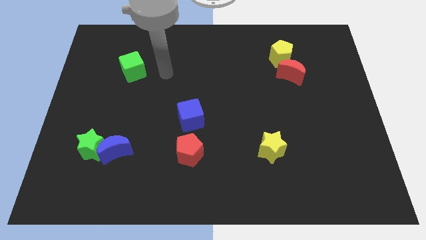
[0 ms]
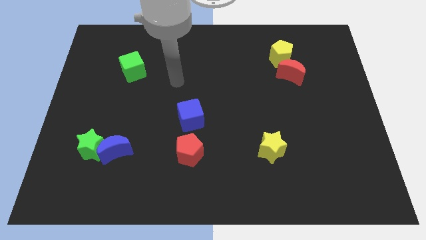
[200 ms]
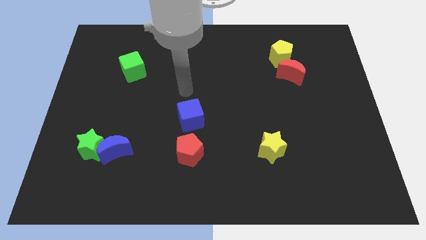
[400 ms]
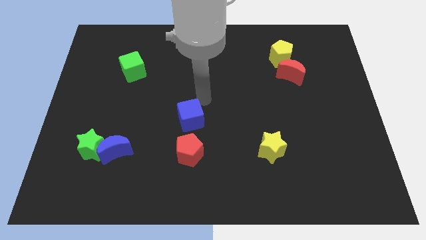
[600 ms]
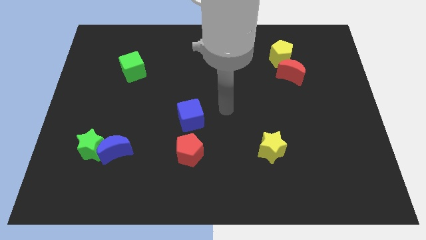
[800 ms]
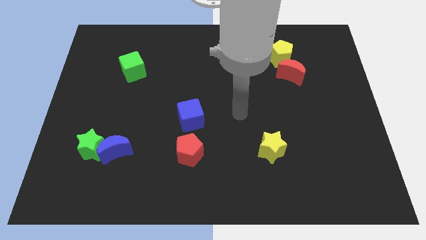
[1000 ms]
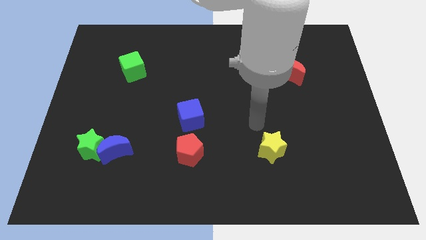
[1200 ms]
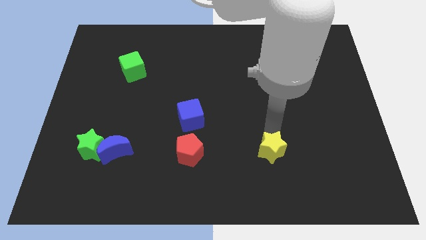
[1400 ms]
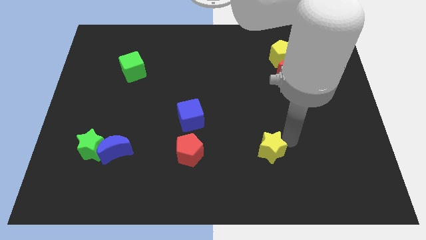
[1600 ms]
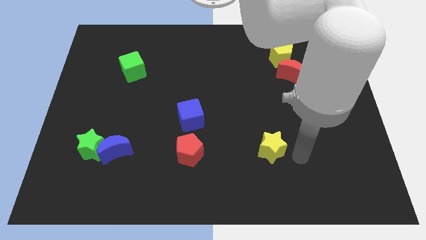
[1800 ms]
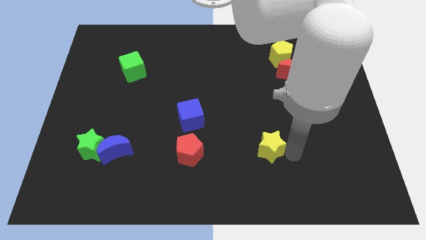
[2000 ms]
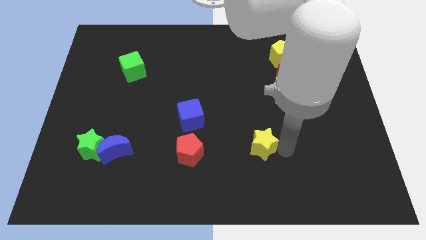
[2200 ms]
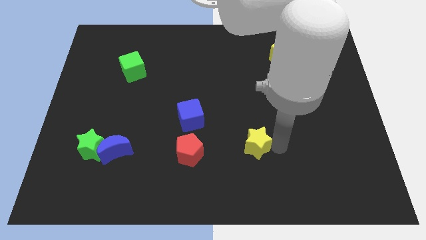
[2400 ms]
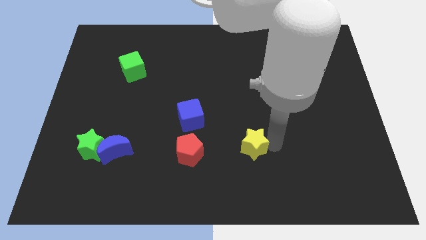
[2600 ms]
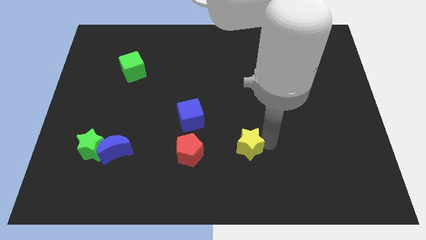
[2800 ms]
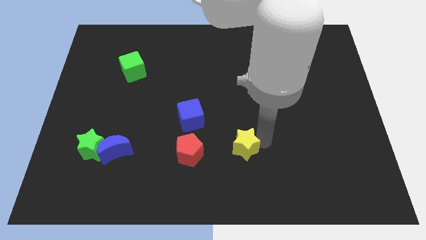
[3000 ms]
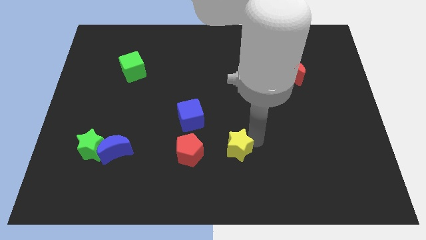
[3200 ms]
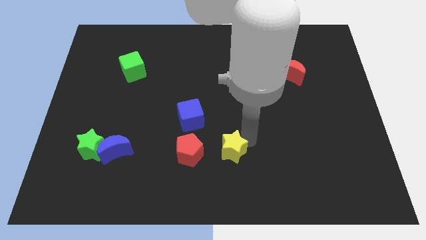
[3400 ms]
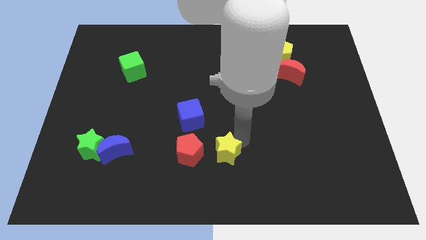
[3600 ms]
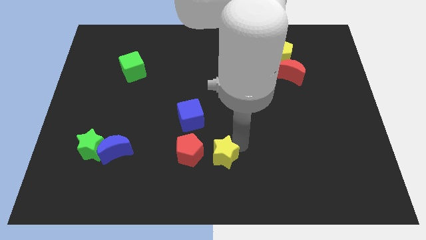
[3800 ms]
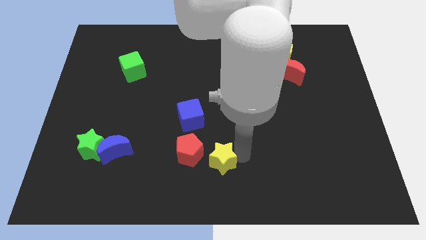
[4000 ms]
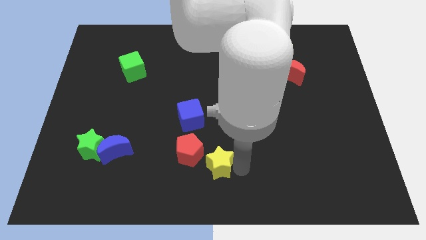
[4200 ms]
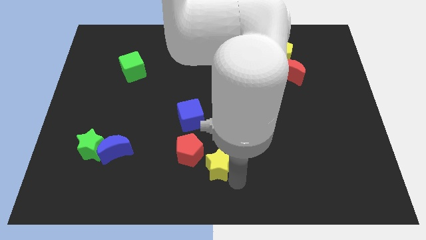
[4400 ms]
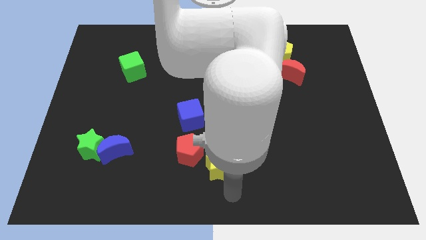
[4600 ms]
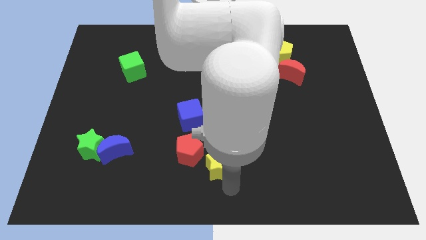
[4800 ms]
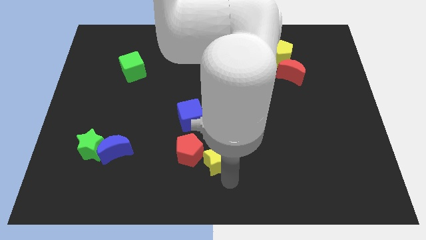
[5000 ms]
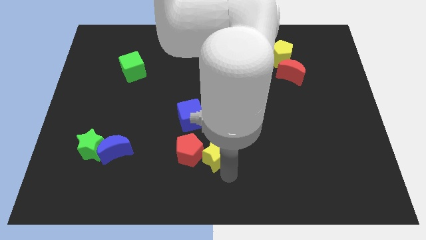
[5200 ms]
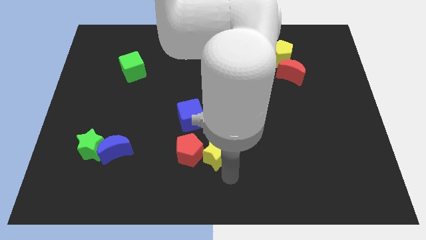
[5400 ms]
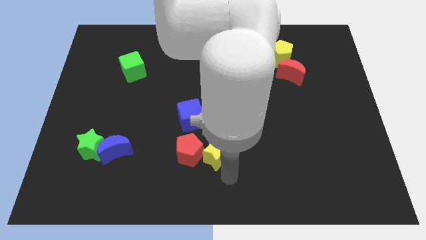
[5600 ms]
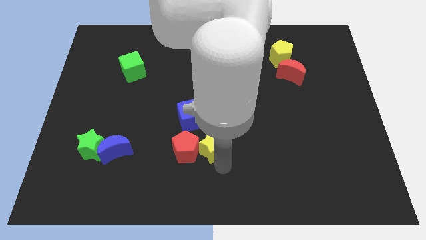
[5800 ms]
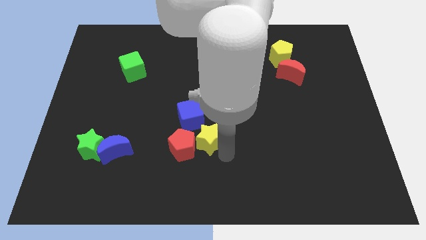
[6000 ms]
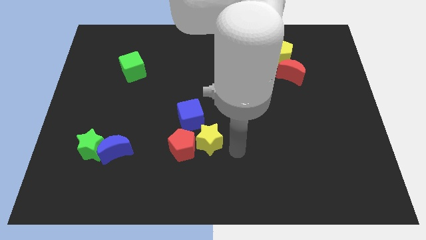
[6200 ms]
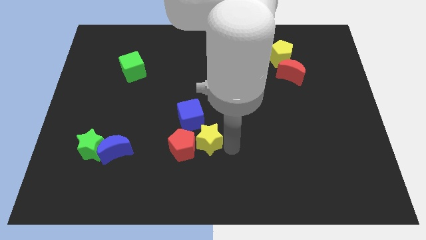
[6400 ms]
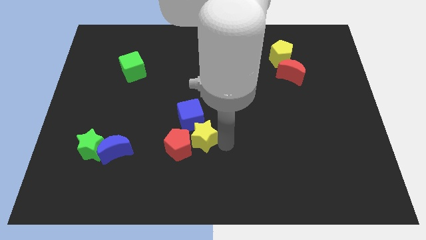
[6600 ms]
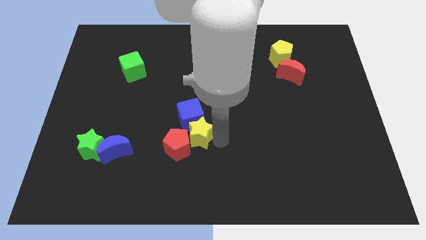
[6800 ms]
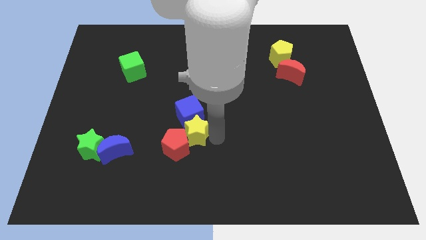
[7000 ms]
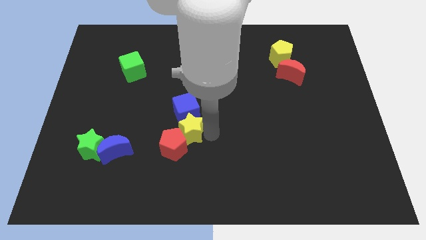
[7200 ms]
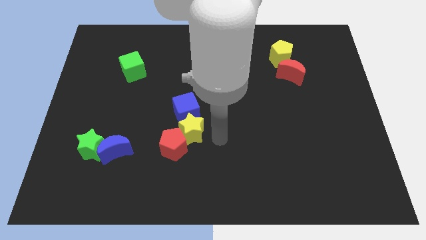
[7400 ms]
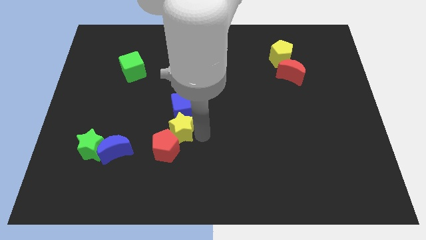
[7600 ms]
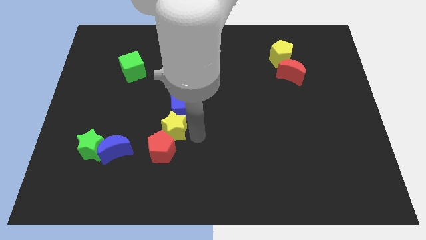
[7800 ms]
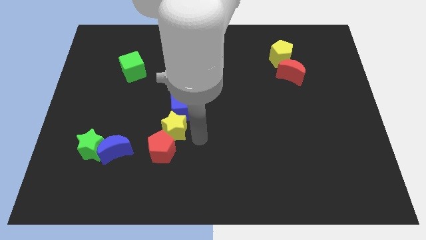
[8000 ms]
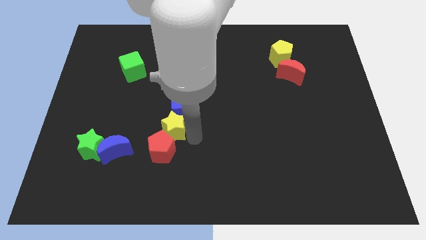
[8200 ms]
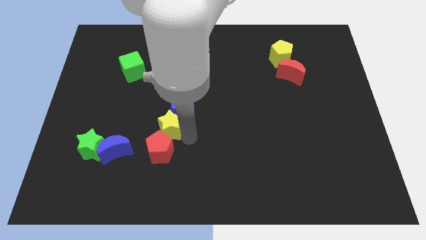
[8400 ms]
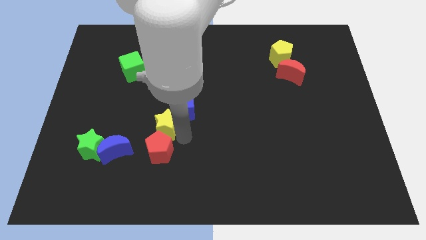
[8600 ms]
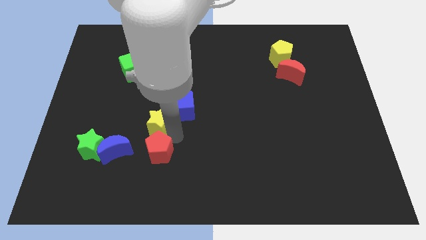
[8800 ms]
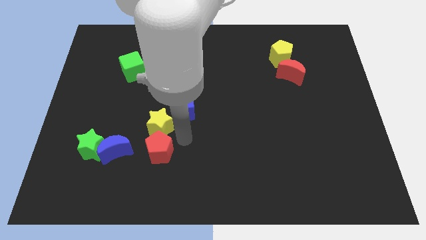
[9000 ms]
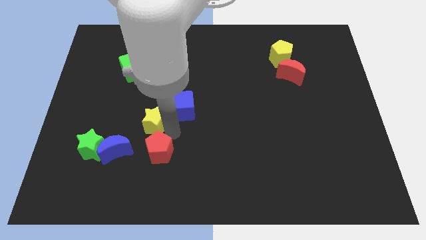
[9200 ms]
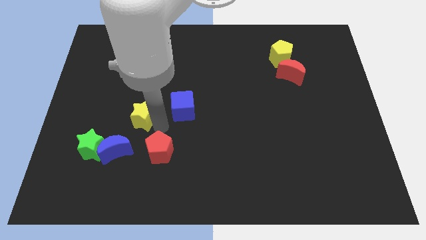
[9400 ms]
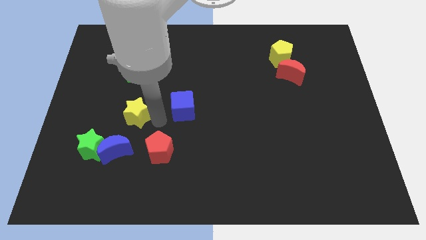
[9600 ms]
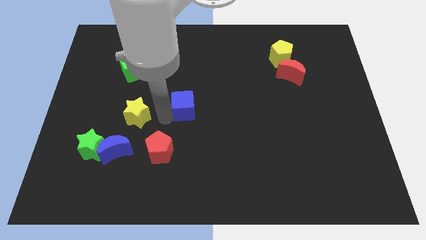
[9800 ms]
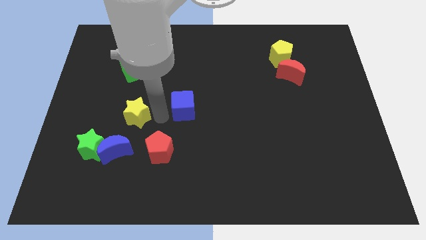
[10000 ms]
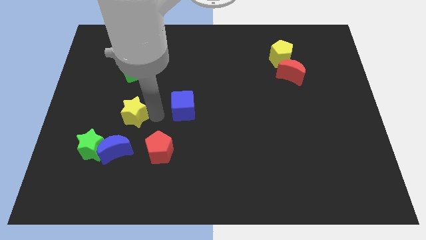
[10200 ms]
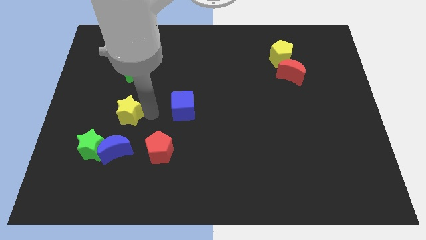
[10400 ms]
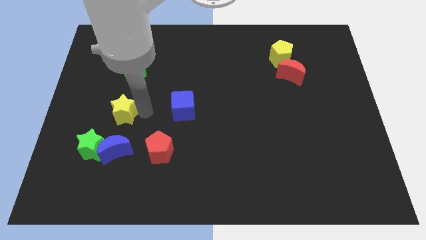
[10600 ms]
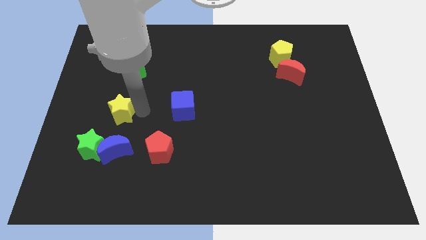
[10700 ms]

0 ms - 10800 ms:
push the yellow star to the top side of the green star

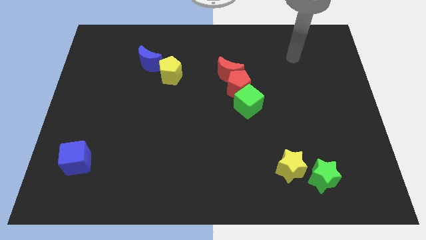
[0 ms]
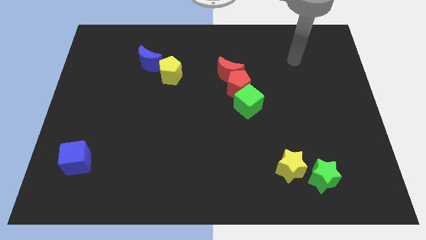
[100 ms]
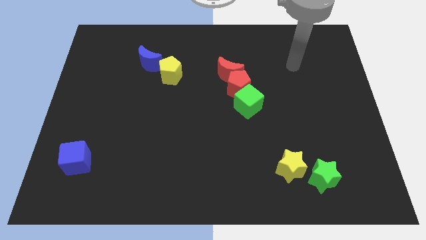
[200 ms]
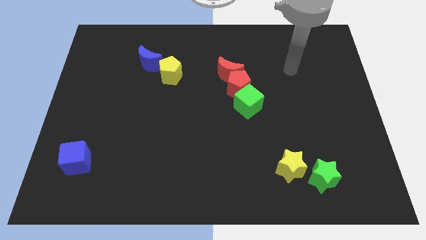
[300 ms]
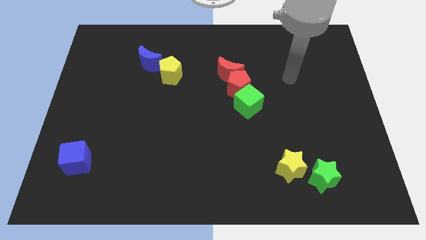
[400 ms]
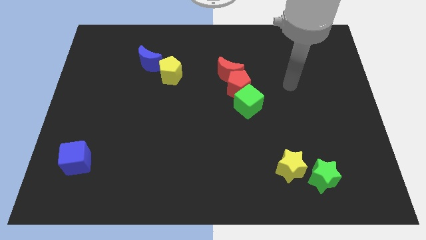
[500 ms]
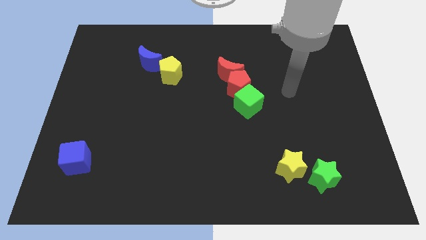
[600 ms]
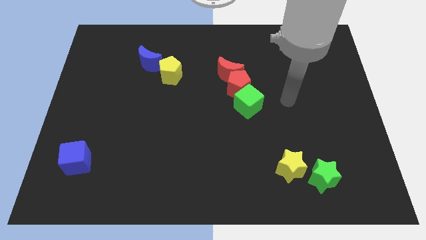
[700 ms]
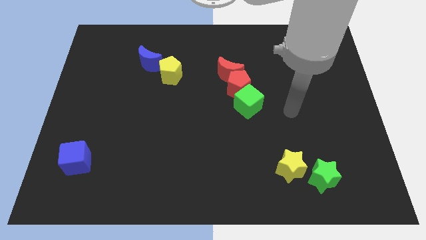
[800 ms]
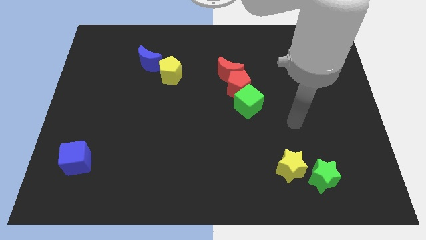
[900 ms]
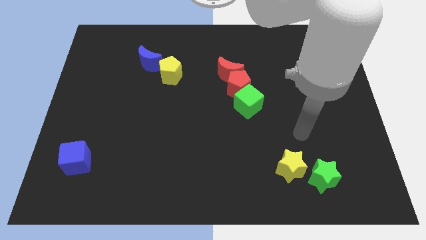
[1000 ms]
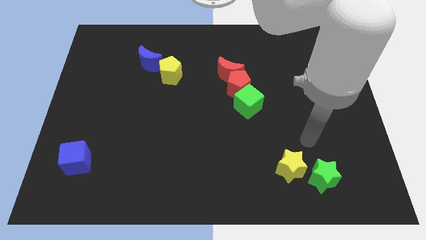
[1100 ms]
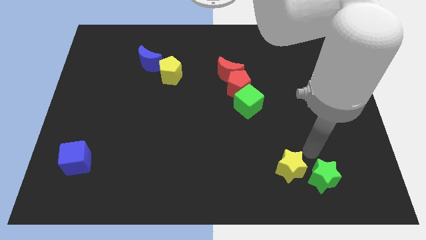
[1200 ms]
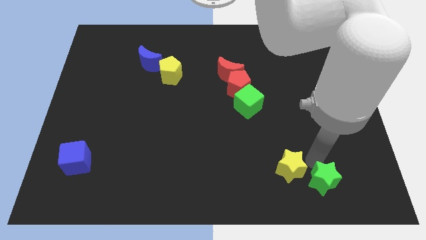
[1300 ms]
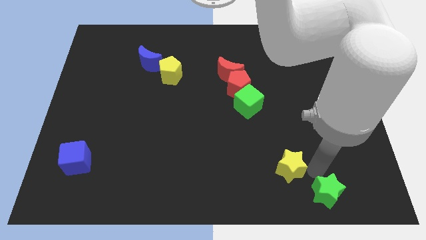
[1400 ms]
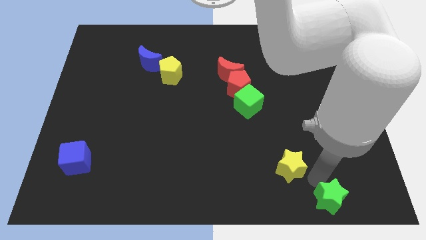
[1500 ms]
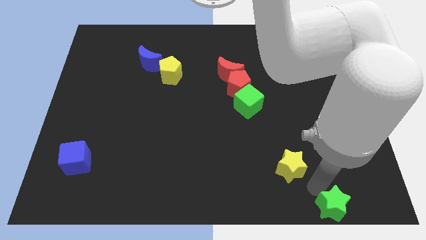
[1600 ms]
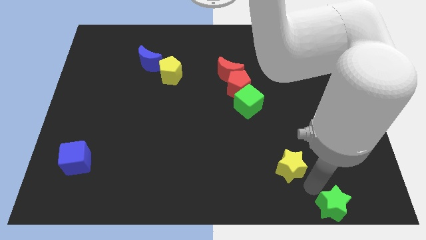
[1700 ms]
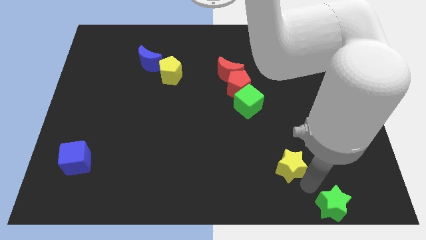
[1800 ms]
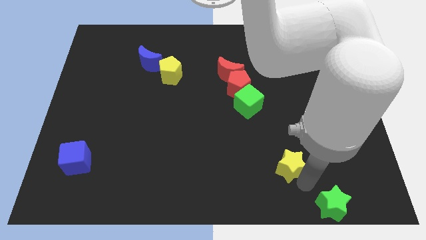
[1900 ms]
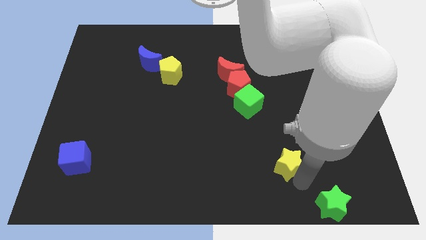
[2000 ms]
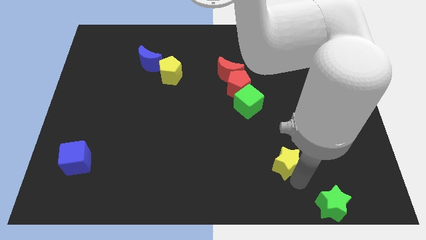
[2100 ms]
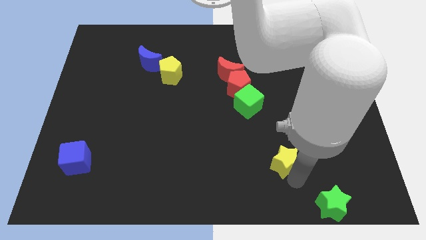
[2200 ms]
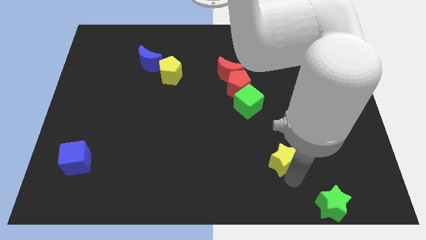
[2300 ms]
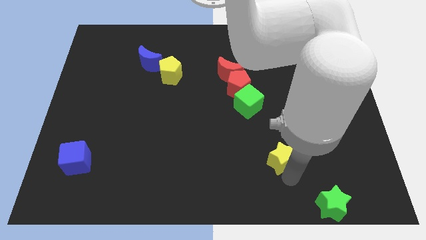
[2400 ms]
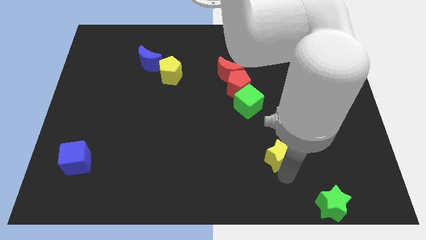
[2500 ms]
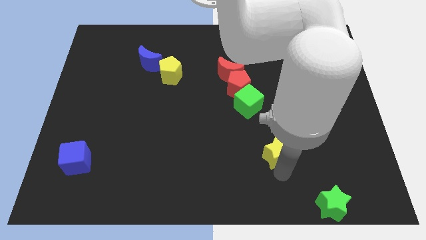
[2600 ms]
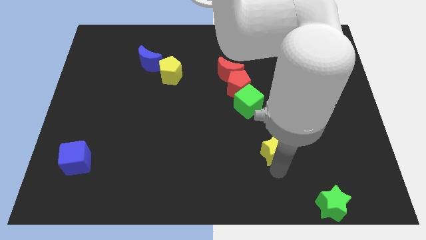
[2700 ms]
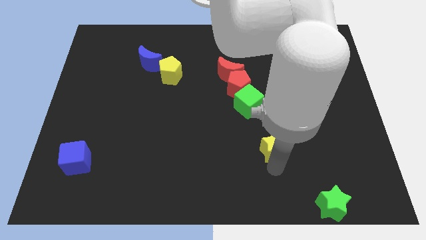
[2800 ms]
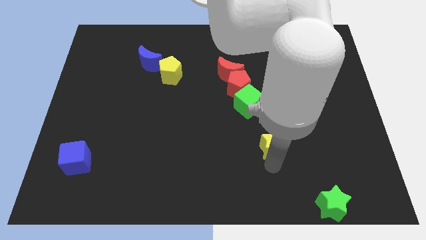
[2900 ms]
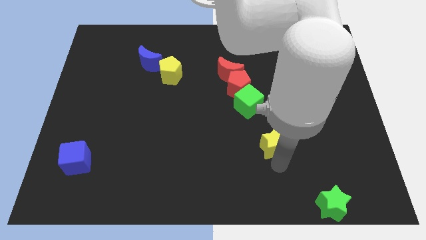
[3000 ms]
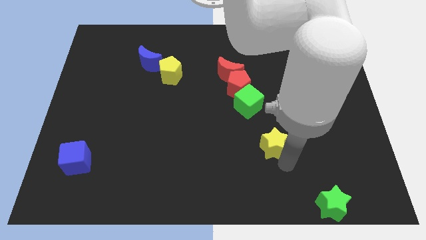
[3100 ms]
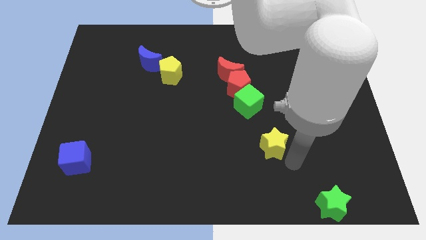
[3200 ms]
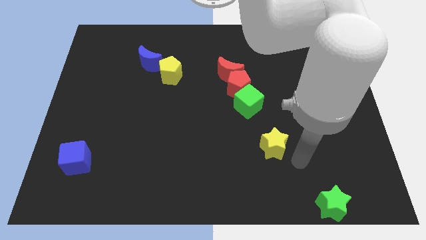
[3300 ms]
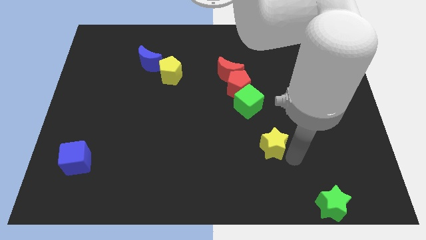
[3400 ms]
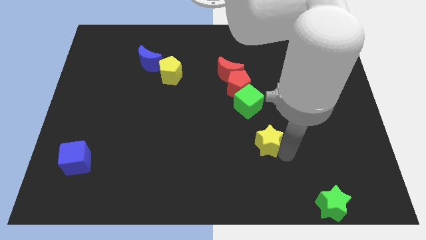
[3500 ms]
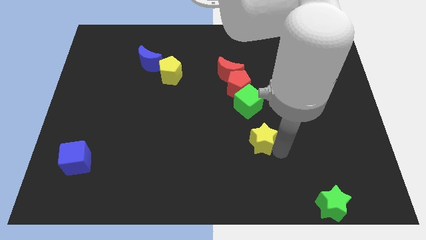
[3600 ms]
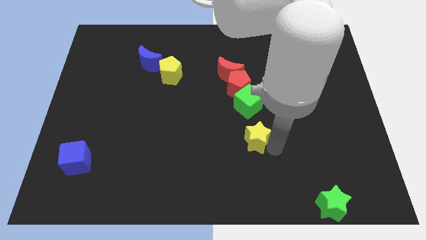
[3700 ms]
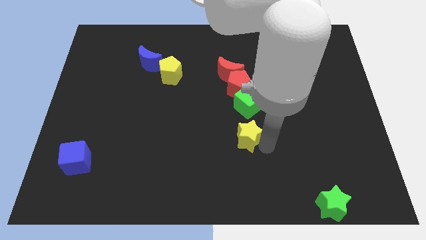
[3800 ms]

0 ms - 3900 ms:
move the yellow star to the bottom of the red pentagon
